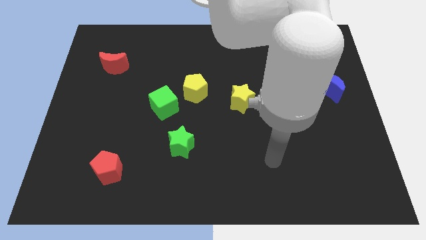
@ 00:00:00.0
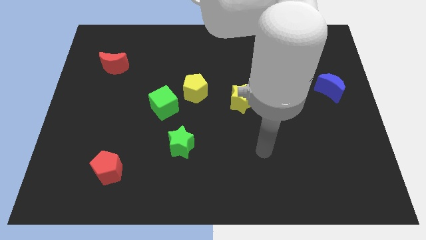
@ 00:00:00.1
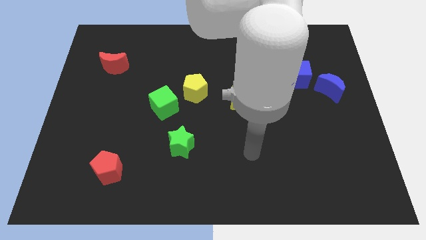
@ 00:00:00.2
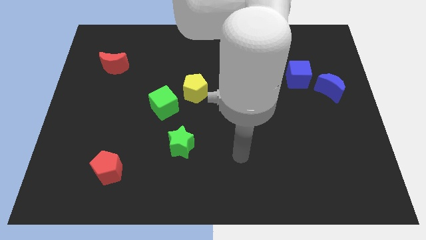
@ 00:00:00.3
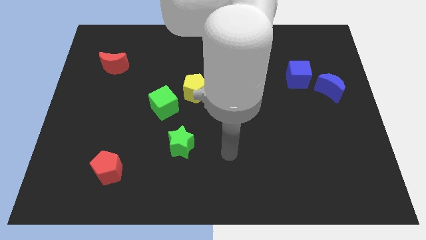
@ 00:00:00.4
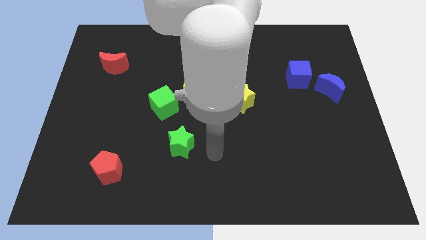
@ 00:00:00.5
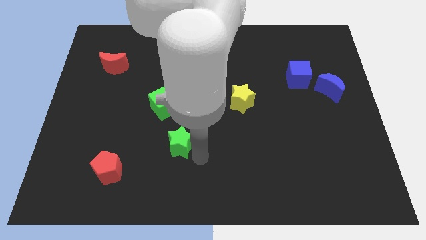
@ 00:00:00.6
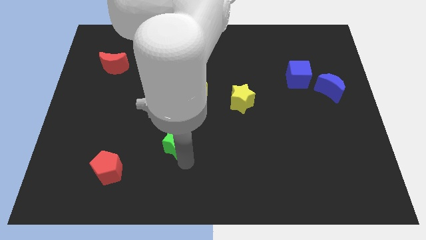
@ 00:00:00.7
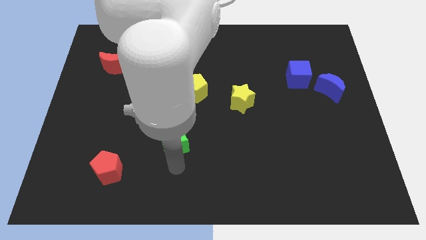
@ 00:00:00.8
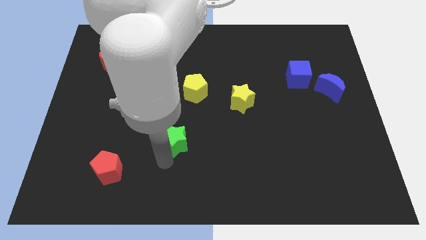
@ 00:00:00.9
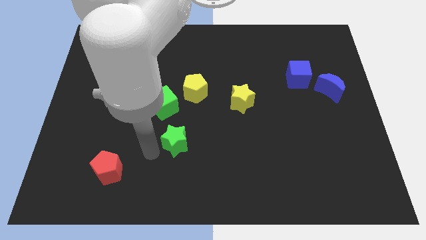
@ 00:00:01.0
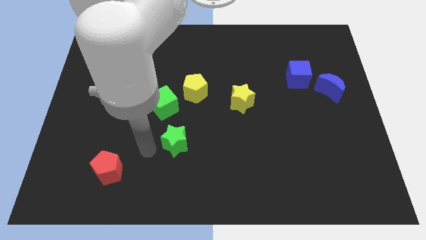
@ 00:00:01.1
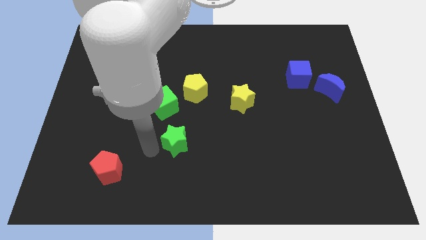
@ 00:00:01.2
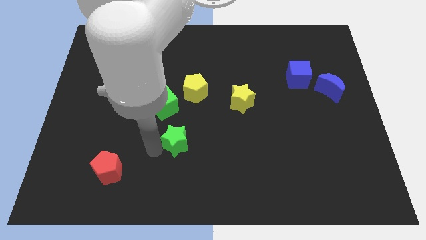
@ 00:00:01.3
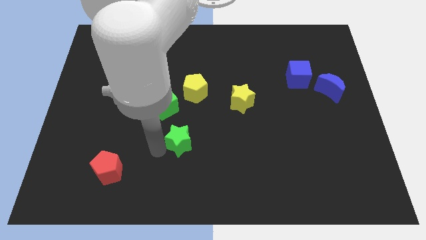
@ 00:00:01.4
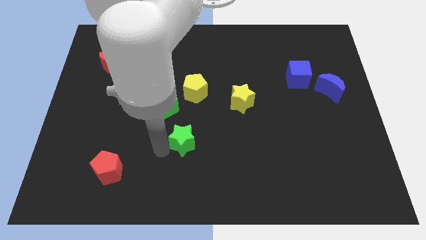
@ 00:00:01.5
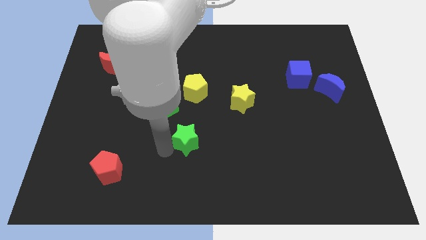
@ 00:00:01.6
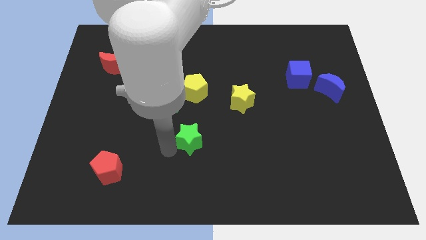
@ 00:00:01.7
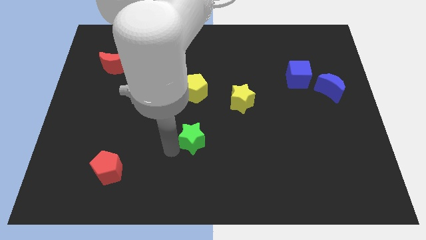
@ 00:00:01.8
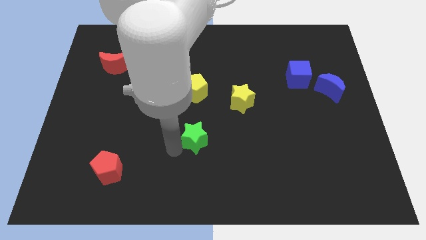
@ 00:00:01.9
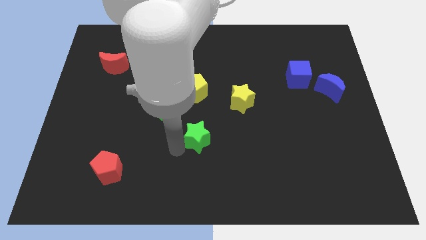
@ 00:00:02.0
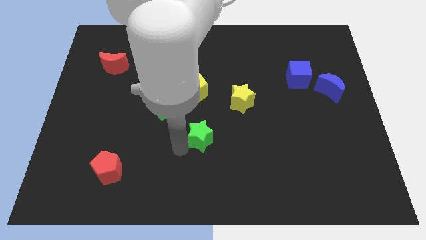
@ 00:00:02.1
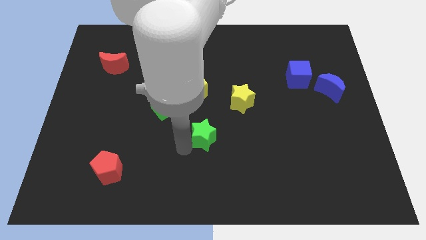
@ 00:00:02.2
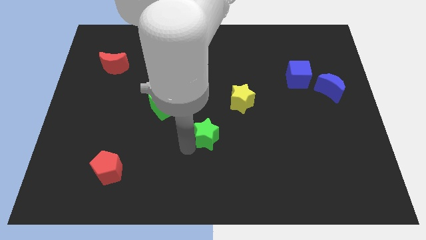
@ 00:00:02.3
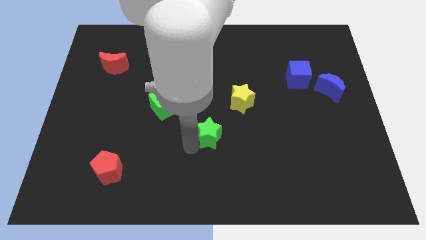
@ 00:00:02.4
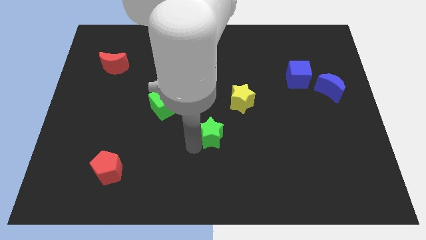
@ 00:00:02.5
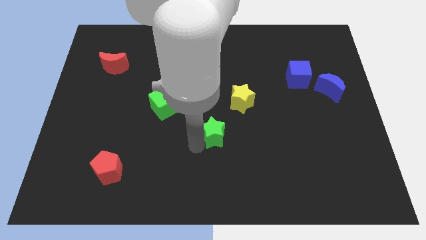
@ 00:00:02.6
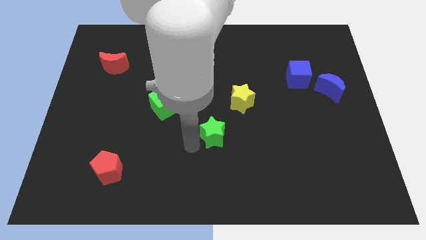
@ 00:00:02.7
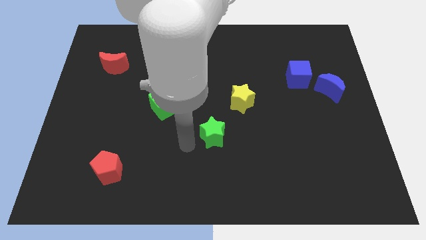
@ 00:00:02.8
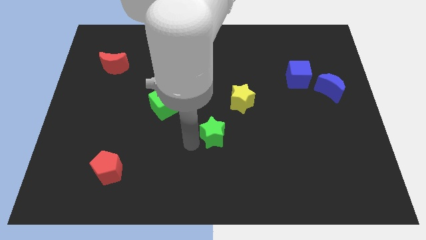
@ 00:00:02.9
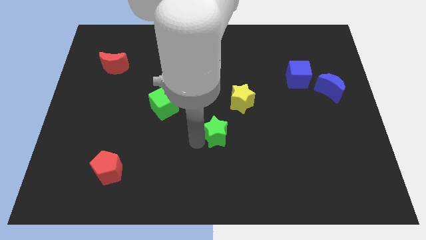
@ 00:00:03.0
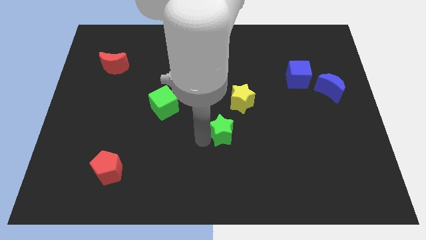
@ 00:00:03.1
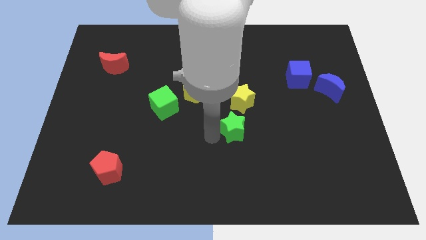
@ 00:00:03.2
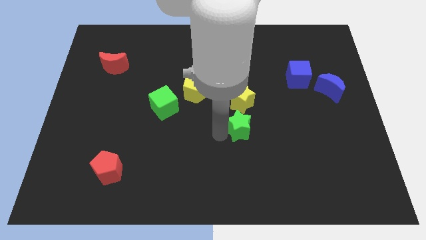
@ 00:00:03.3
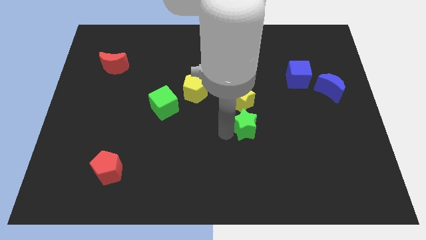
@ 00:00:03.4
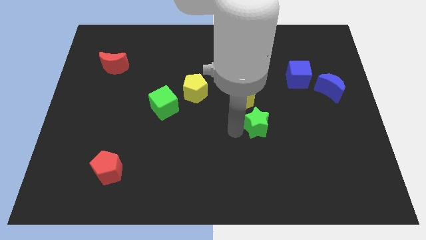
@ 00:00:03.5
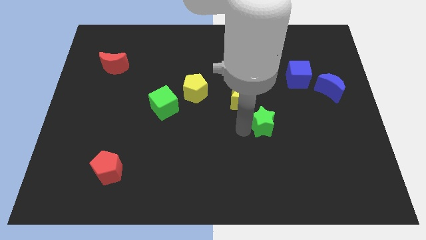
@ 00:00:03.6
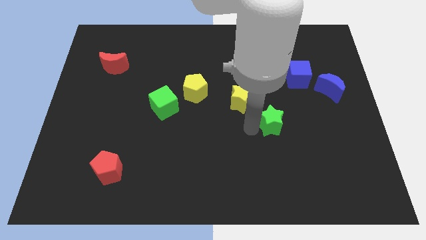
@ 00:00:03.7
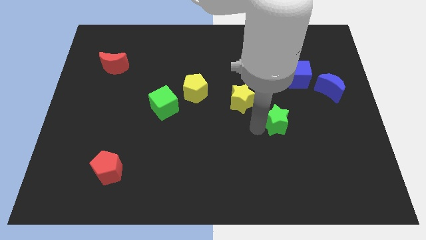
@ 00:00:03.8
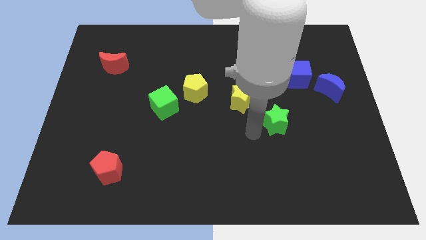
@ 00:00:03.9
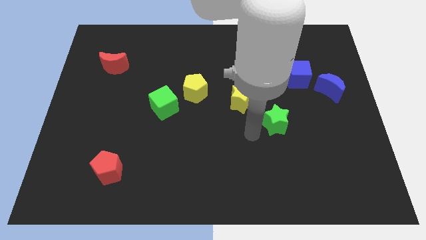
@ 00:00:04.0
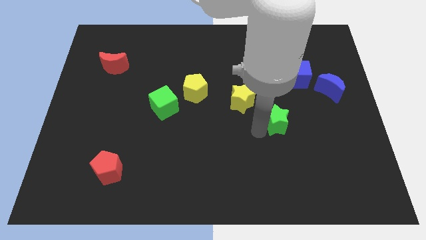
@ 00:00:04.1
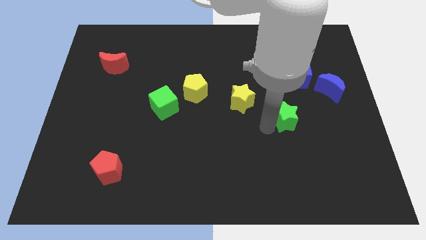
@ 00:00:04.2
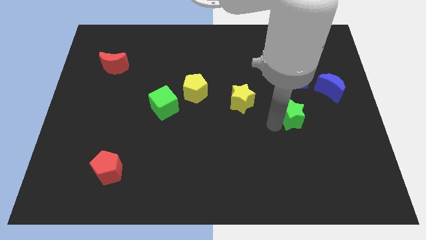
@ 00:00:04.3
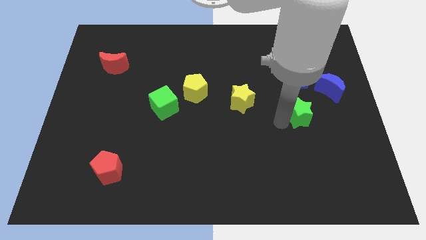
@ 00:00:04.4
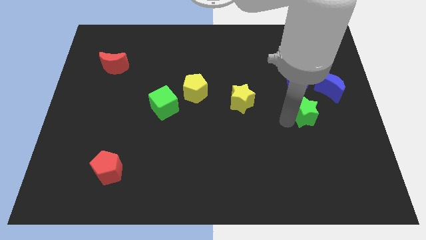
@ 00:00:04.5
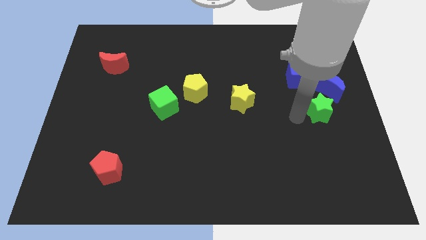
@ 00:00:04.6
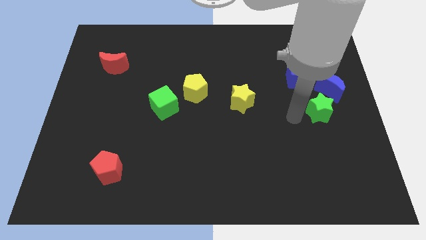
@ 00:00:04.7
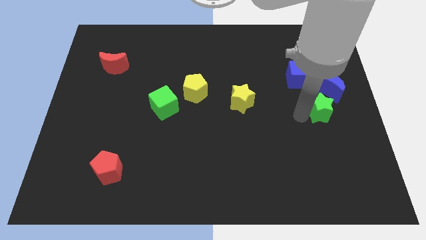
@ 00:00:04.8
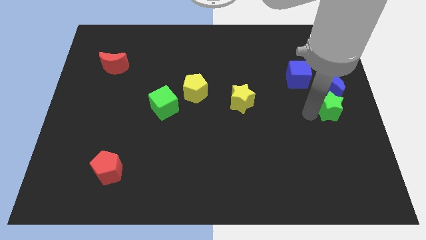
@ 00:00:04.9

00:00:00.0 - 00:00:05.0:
push the green star to the right side
